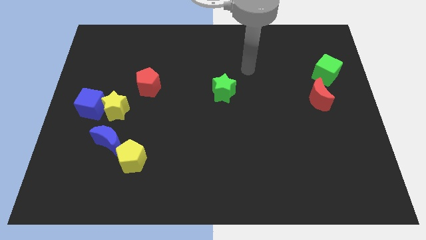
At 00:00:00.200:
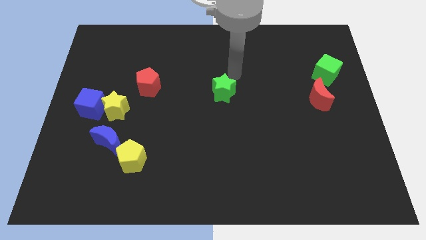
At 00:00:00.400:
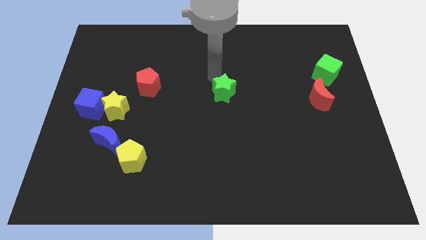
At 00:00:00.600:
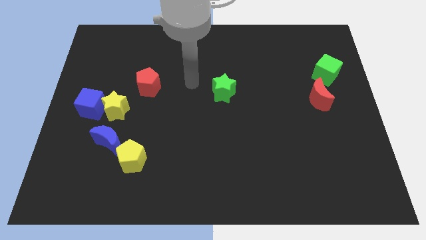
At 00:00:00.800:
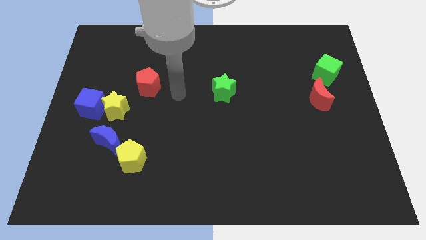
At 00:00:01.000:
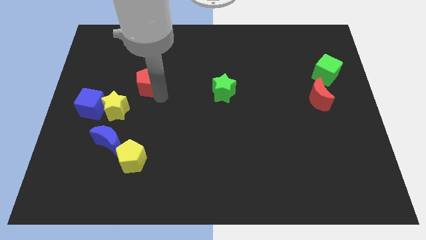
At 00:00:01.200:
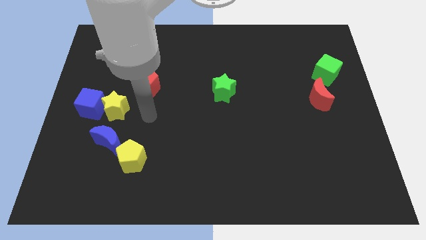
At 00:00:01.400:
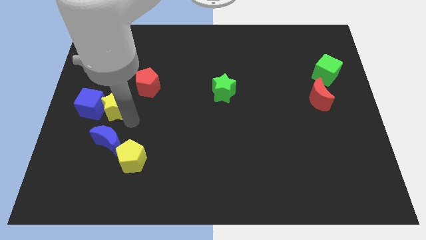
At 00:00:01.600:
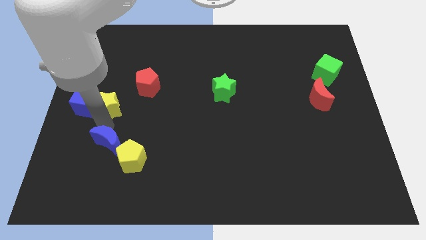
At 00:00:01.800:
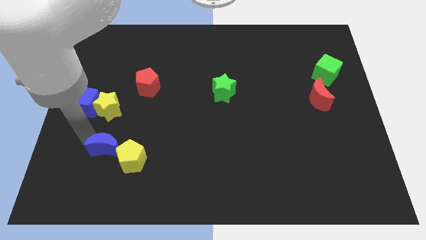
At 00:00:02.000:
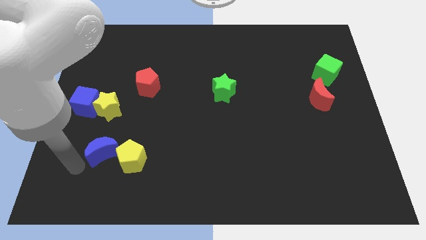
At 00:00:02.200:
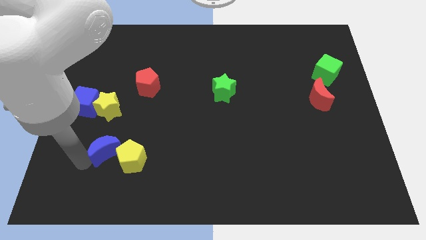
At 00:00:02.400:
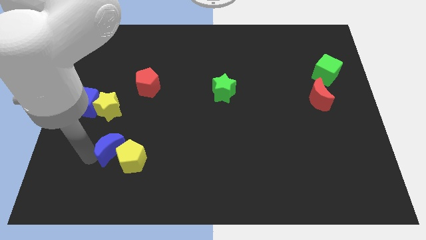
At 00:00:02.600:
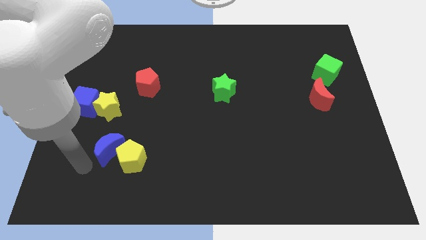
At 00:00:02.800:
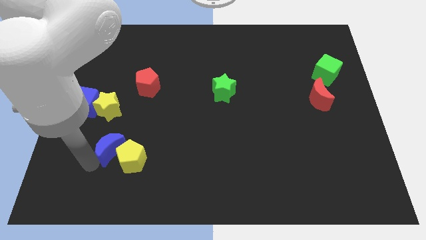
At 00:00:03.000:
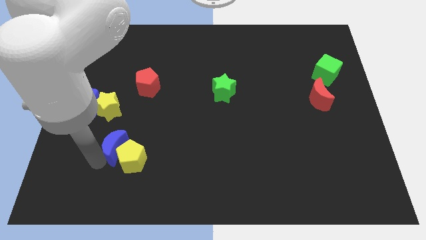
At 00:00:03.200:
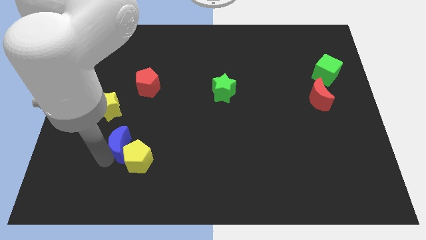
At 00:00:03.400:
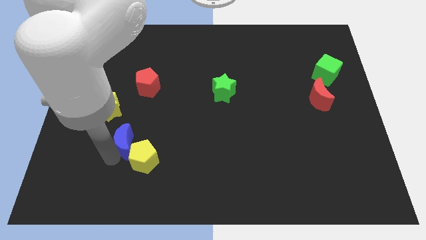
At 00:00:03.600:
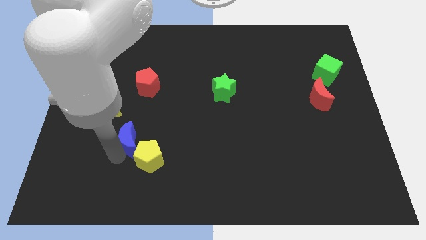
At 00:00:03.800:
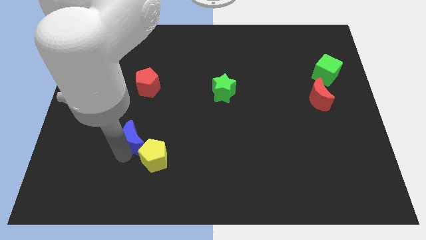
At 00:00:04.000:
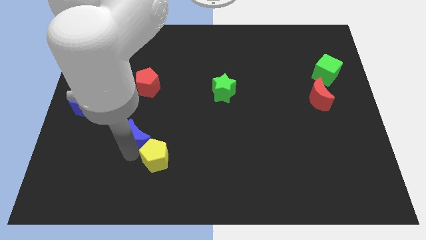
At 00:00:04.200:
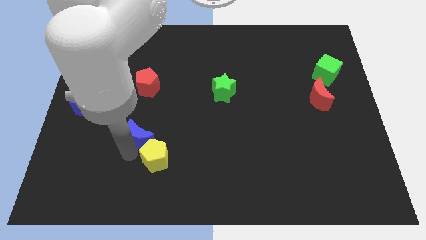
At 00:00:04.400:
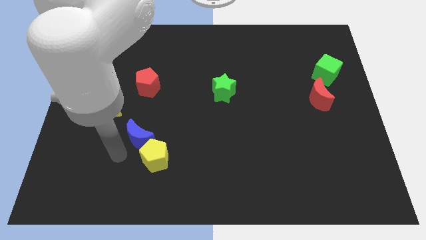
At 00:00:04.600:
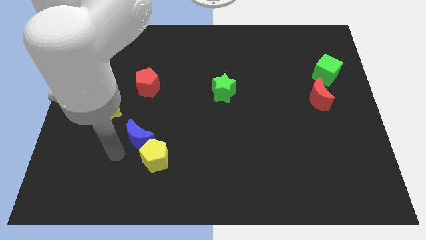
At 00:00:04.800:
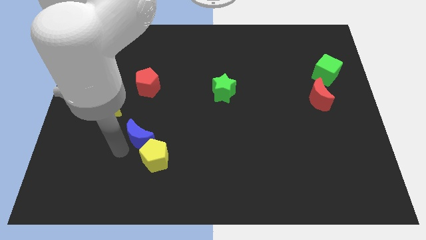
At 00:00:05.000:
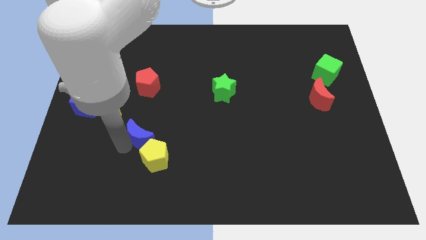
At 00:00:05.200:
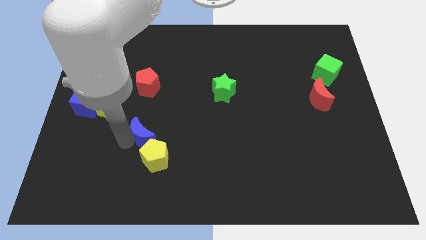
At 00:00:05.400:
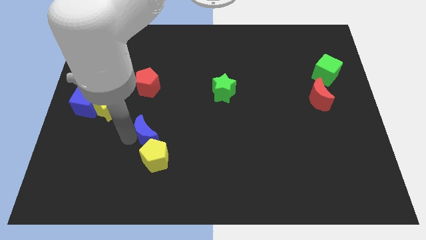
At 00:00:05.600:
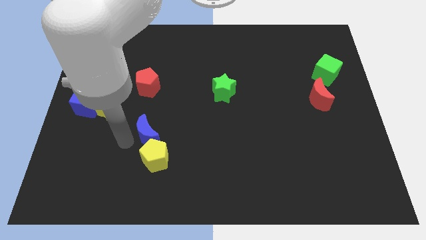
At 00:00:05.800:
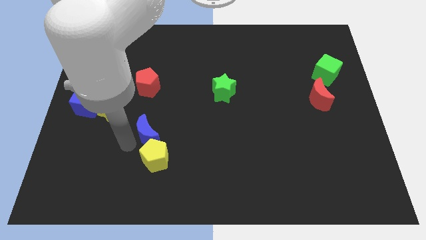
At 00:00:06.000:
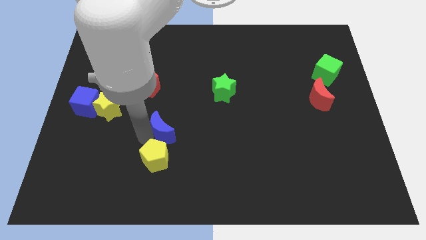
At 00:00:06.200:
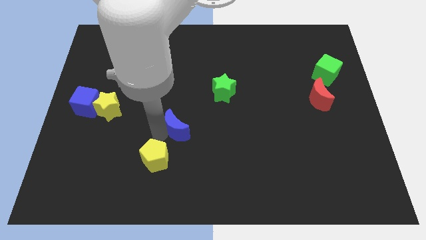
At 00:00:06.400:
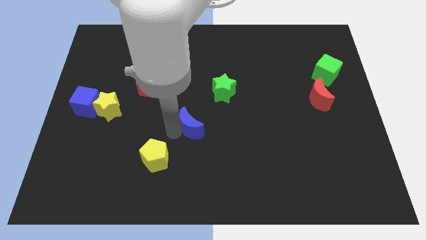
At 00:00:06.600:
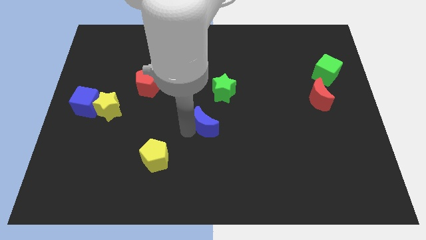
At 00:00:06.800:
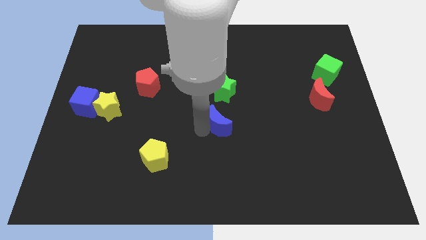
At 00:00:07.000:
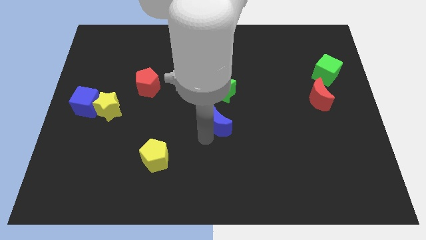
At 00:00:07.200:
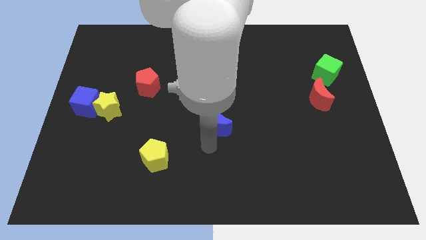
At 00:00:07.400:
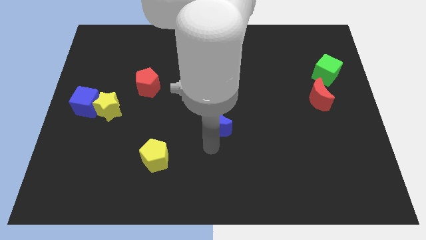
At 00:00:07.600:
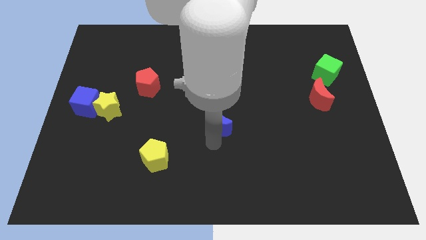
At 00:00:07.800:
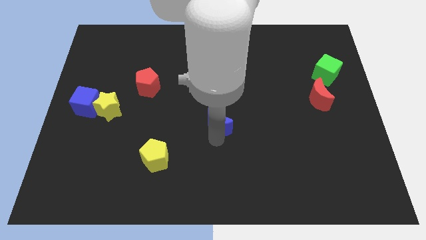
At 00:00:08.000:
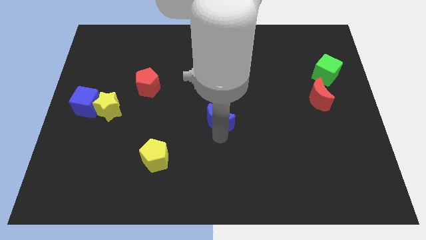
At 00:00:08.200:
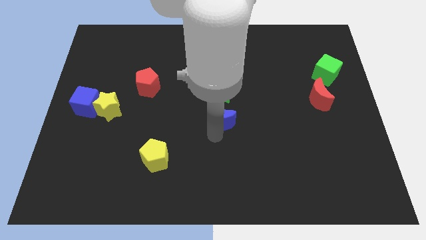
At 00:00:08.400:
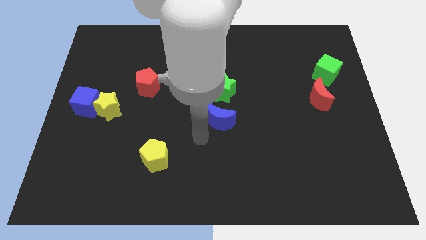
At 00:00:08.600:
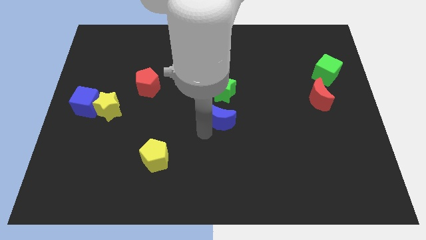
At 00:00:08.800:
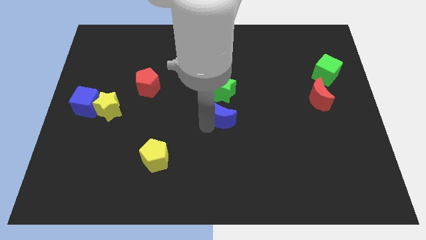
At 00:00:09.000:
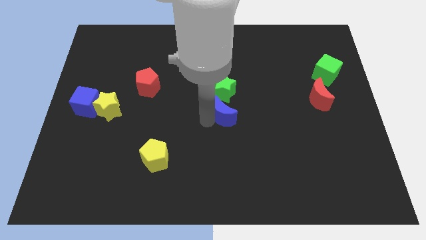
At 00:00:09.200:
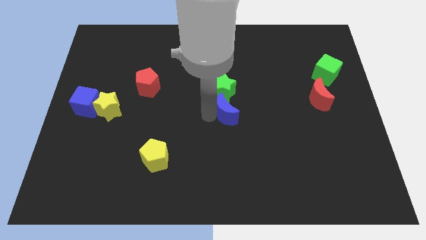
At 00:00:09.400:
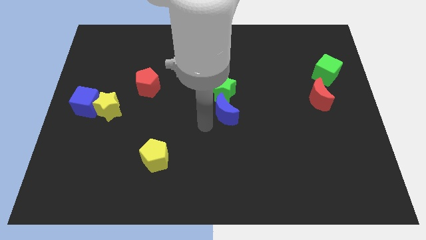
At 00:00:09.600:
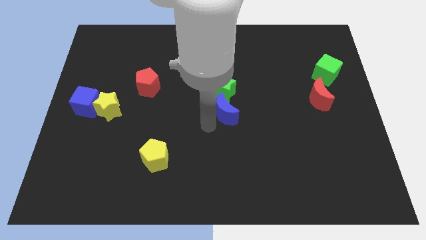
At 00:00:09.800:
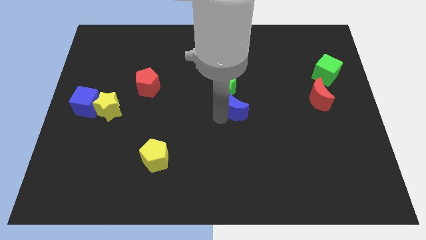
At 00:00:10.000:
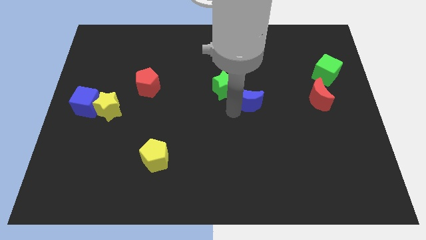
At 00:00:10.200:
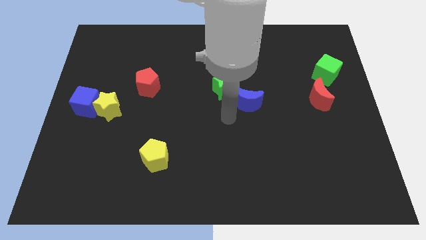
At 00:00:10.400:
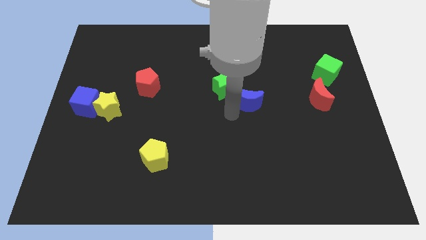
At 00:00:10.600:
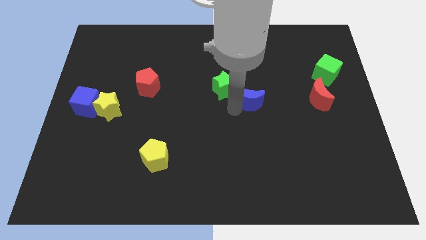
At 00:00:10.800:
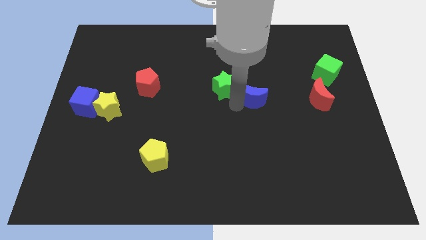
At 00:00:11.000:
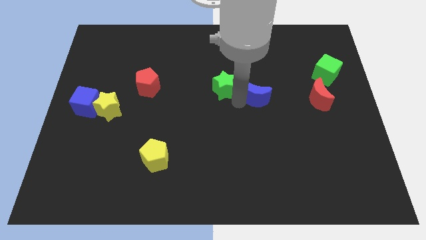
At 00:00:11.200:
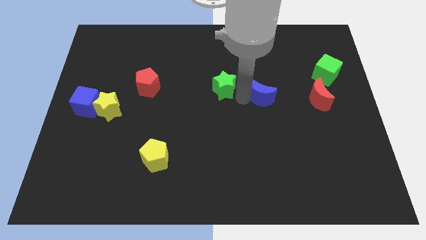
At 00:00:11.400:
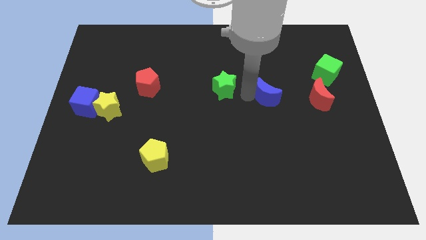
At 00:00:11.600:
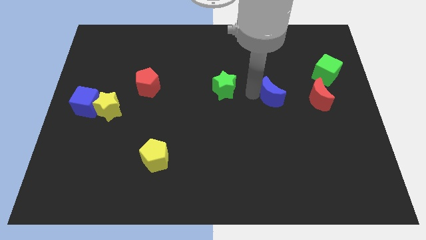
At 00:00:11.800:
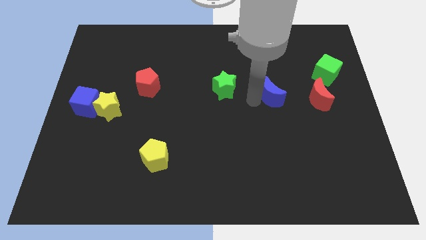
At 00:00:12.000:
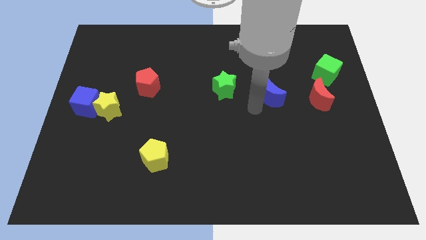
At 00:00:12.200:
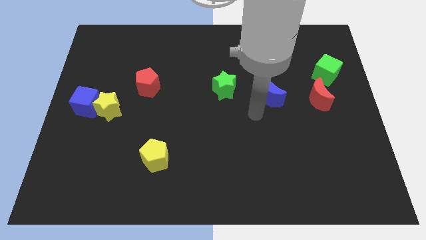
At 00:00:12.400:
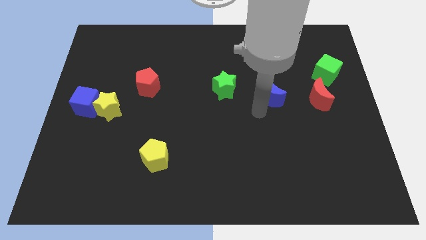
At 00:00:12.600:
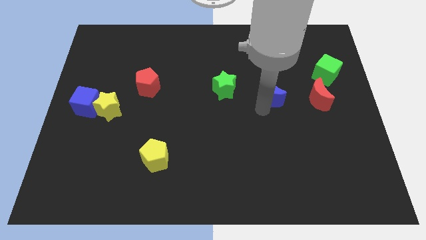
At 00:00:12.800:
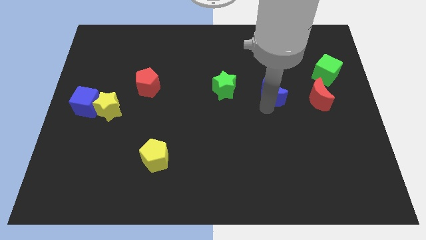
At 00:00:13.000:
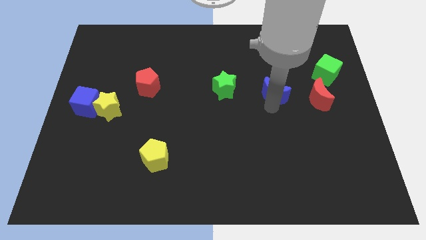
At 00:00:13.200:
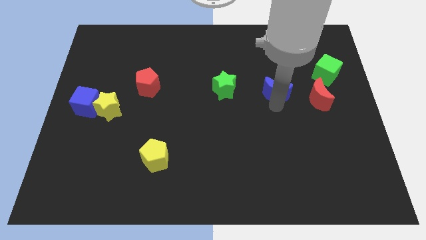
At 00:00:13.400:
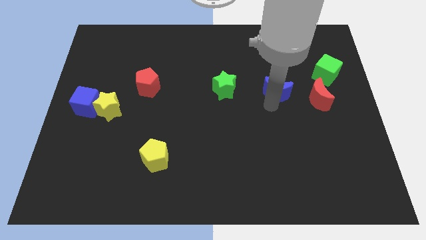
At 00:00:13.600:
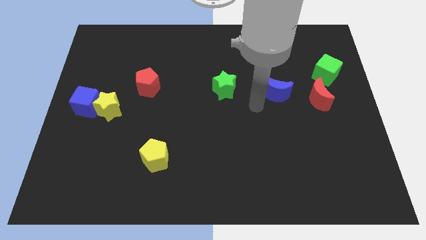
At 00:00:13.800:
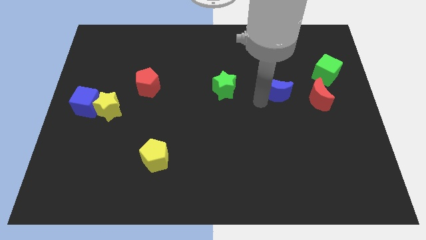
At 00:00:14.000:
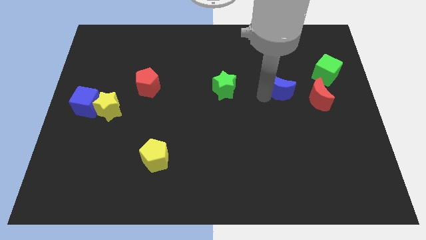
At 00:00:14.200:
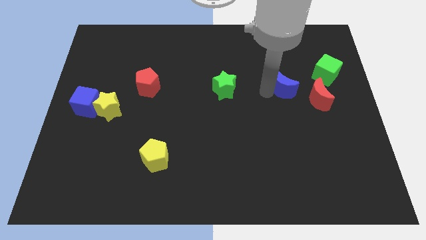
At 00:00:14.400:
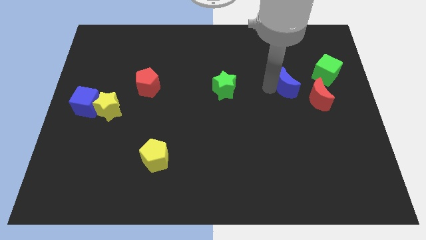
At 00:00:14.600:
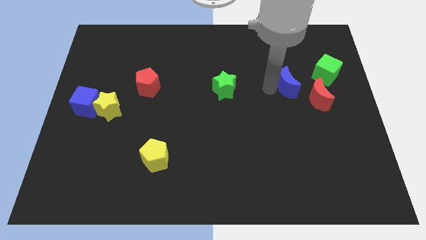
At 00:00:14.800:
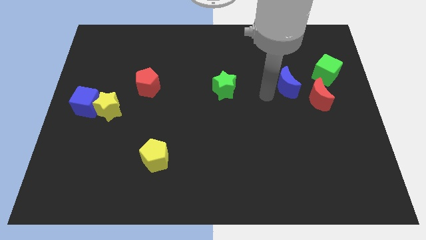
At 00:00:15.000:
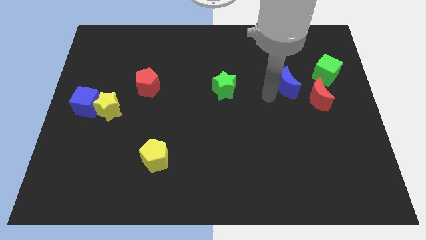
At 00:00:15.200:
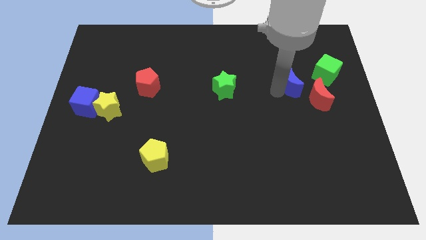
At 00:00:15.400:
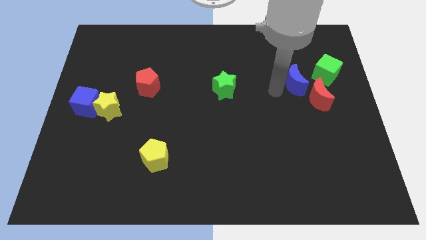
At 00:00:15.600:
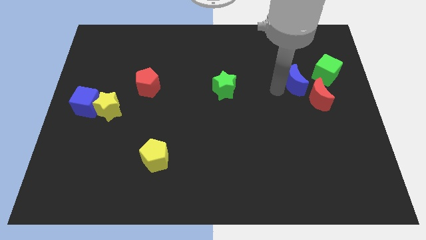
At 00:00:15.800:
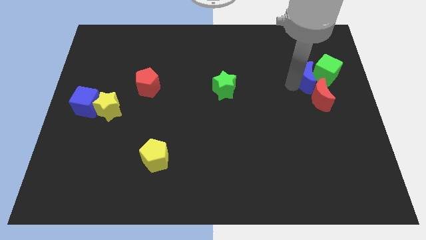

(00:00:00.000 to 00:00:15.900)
slide the blue moon close to the green cube
